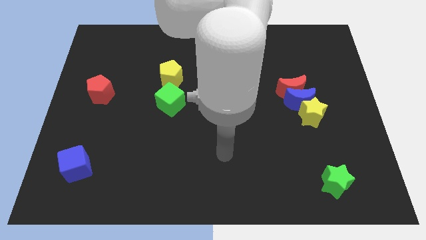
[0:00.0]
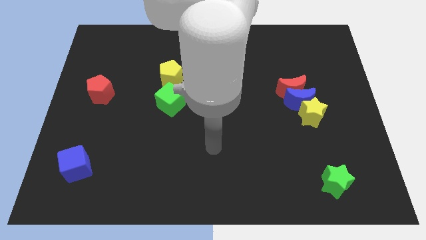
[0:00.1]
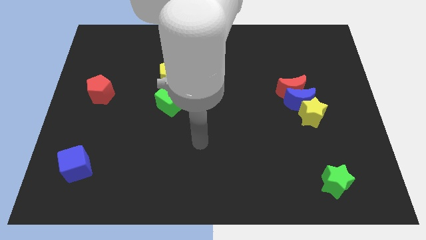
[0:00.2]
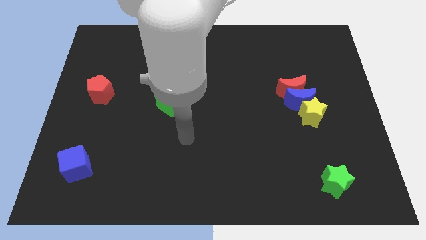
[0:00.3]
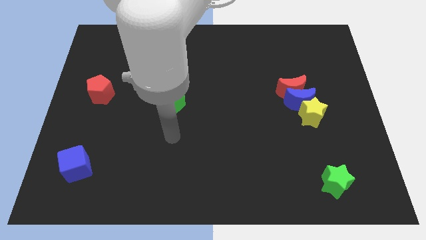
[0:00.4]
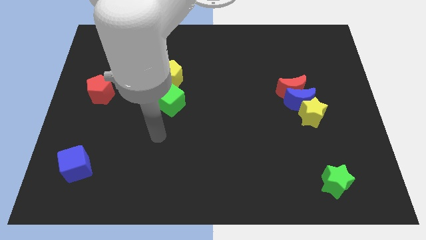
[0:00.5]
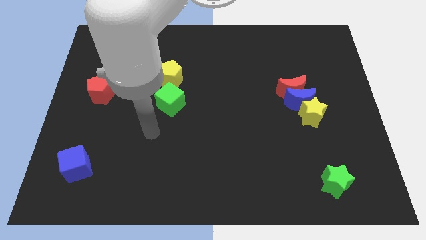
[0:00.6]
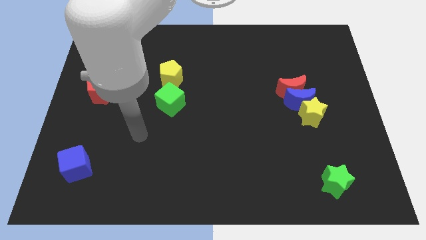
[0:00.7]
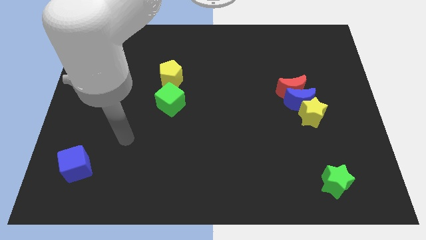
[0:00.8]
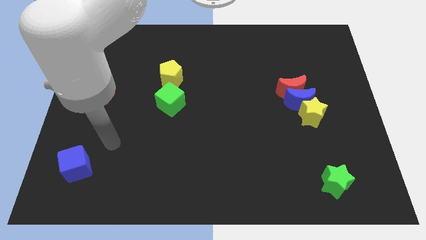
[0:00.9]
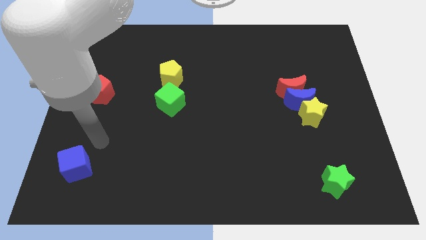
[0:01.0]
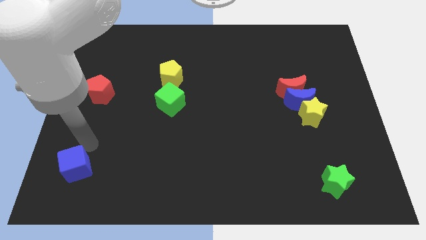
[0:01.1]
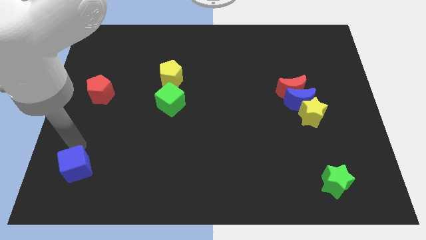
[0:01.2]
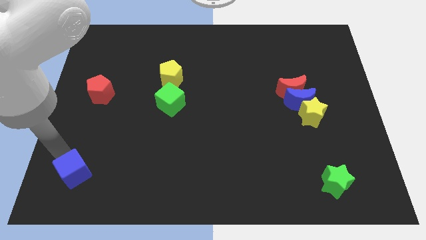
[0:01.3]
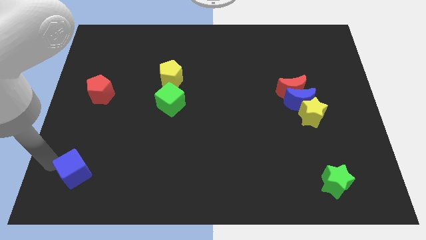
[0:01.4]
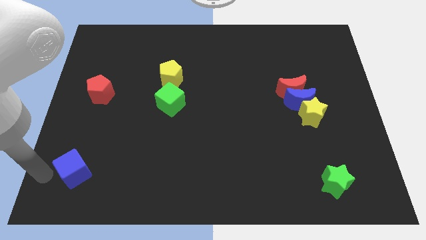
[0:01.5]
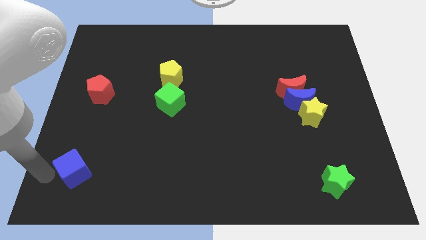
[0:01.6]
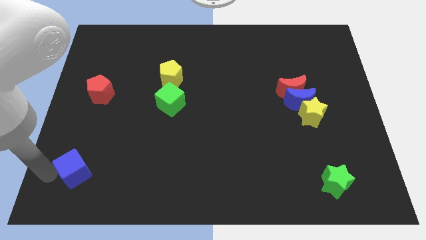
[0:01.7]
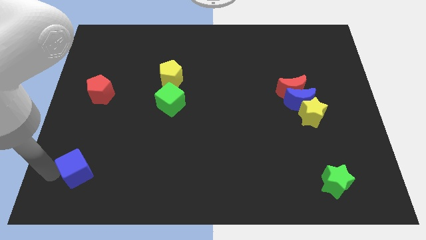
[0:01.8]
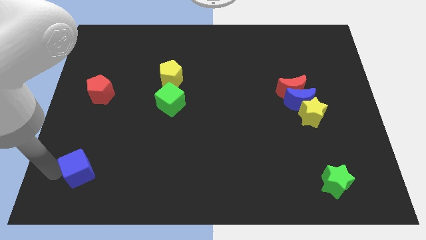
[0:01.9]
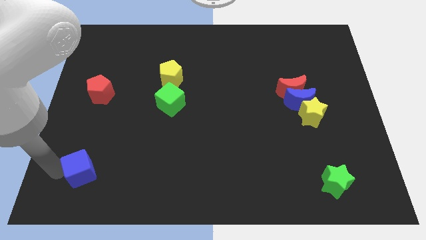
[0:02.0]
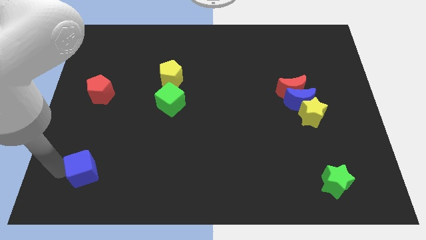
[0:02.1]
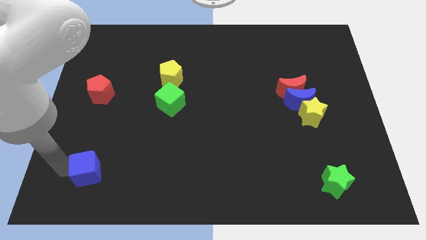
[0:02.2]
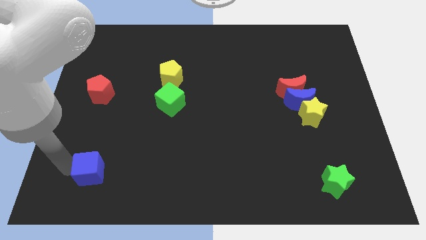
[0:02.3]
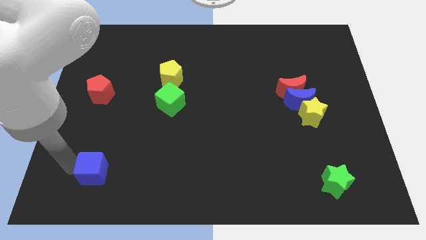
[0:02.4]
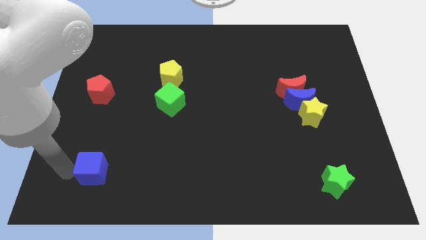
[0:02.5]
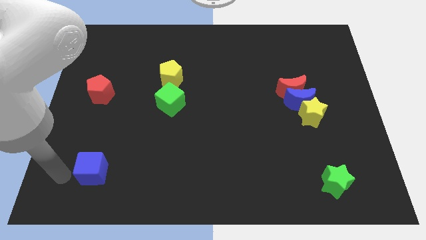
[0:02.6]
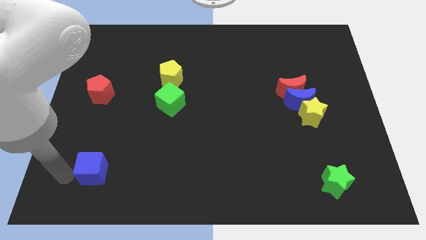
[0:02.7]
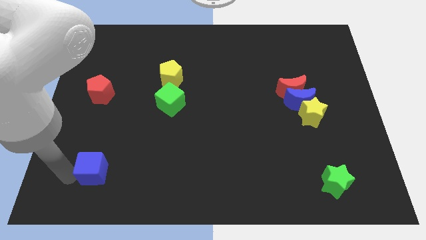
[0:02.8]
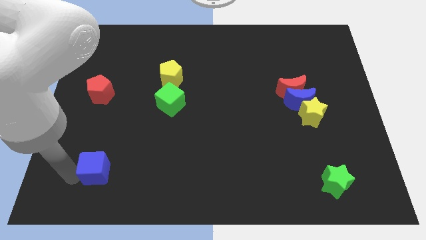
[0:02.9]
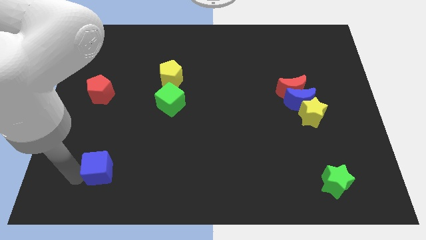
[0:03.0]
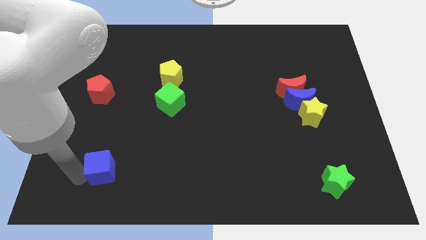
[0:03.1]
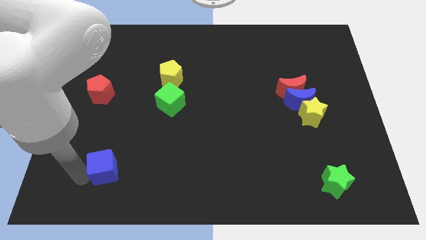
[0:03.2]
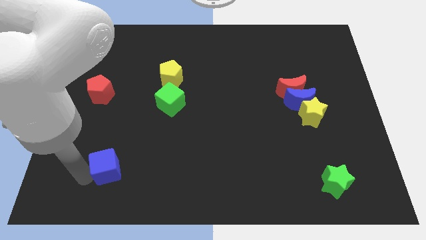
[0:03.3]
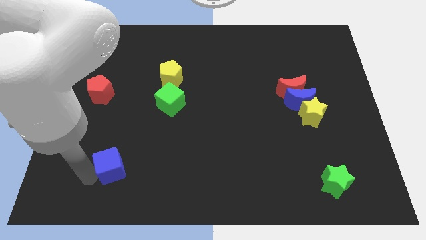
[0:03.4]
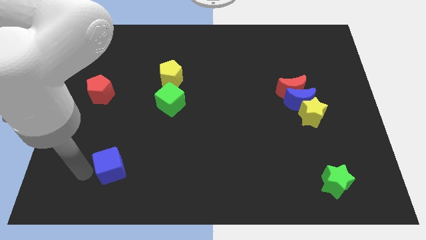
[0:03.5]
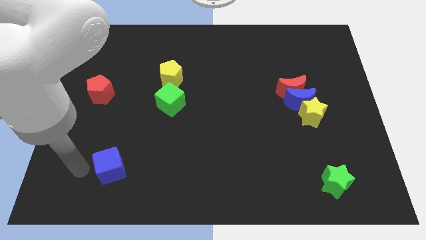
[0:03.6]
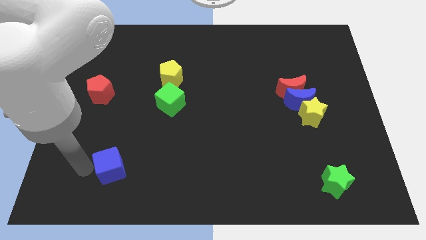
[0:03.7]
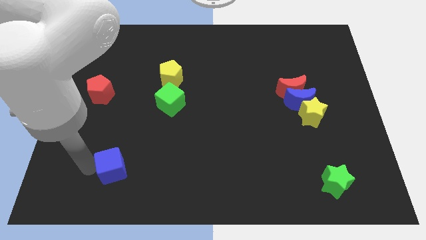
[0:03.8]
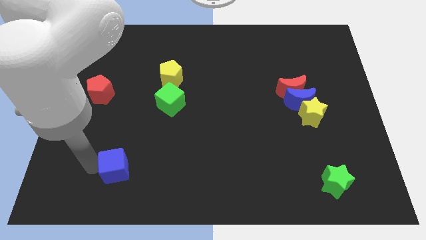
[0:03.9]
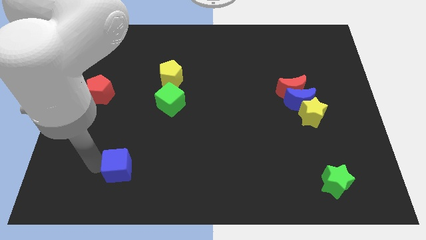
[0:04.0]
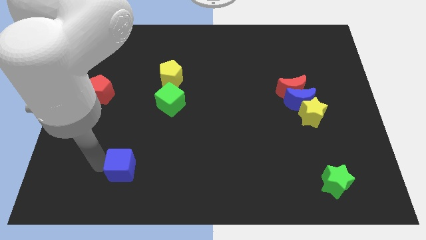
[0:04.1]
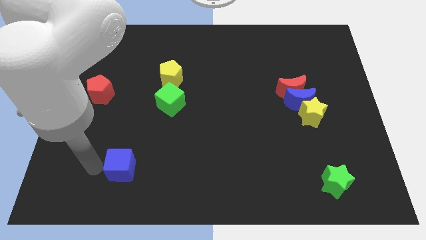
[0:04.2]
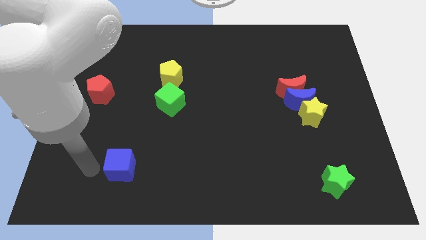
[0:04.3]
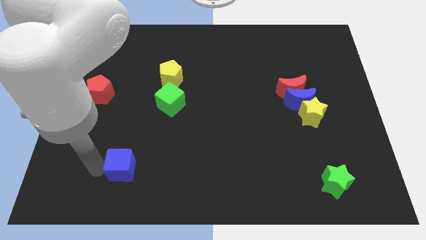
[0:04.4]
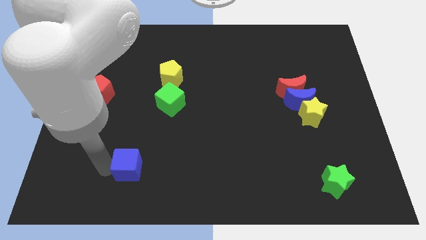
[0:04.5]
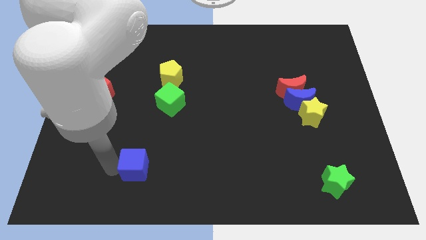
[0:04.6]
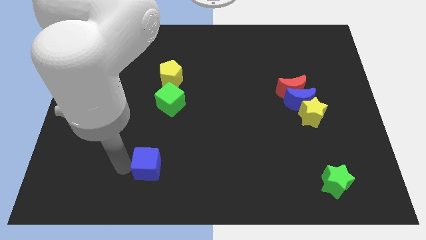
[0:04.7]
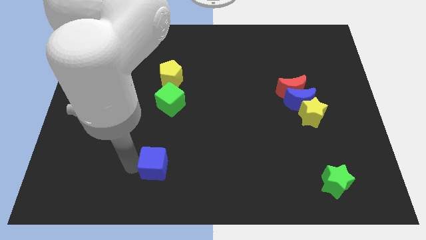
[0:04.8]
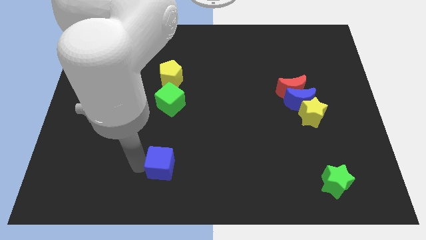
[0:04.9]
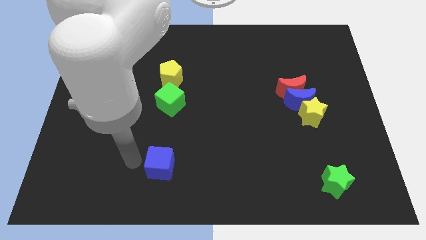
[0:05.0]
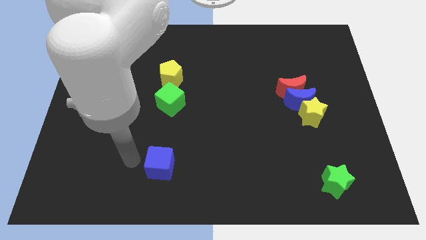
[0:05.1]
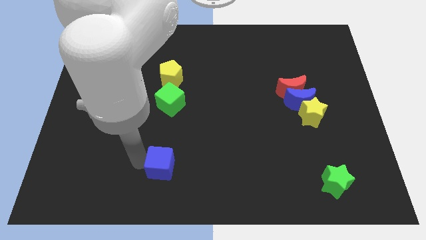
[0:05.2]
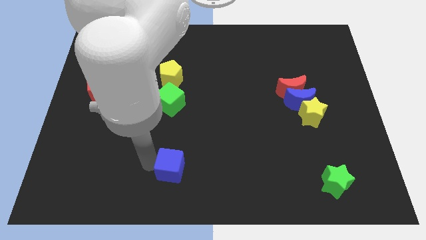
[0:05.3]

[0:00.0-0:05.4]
move the blue cube to the right

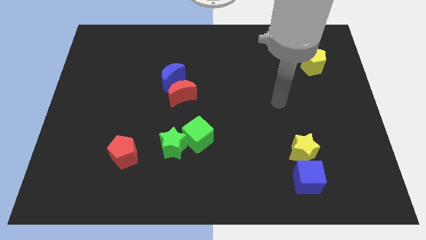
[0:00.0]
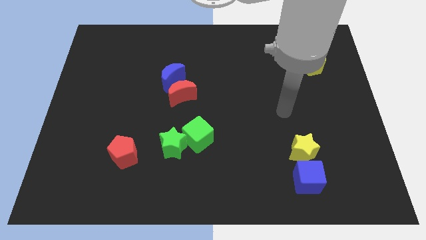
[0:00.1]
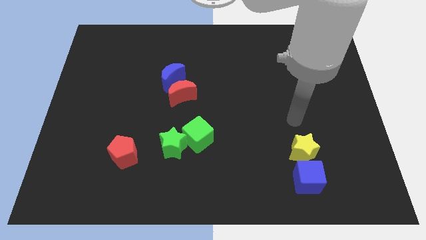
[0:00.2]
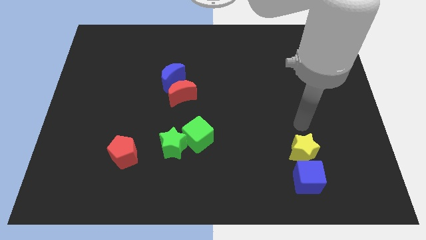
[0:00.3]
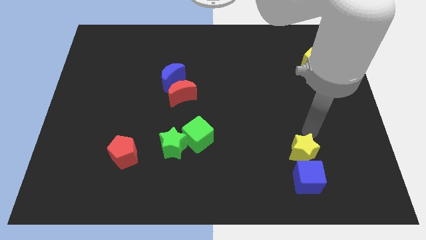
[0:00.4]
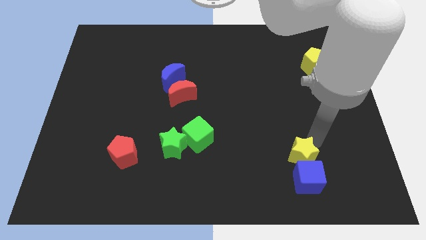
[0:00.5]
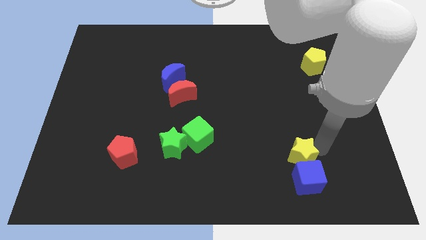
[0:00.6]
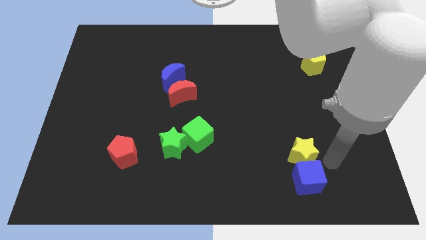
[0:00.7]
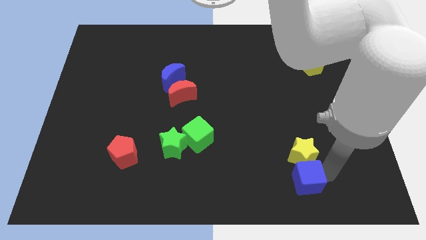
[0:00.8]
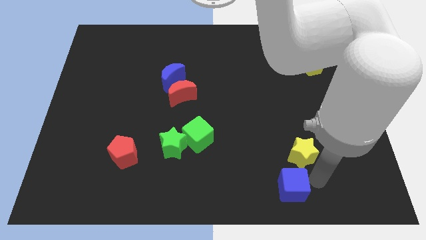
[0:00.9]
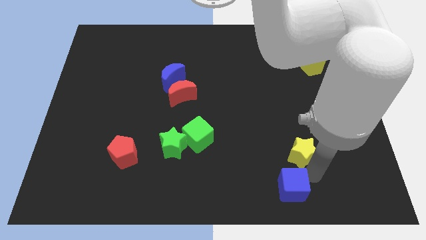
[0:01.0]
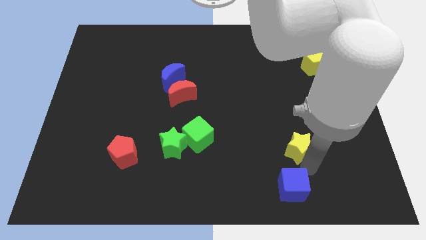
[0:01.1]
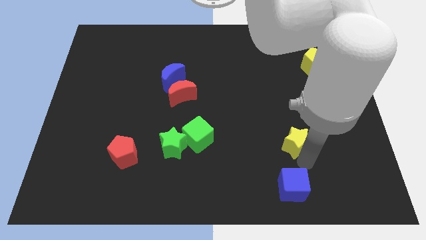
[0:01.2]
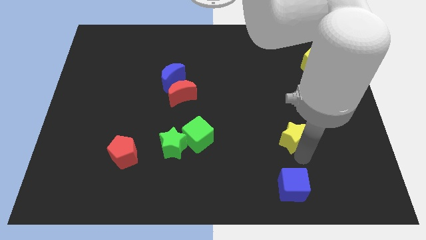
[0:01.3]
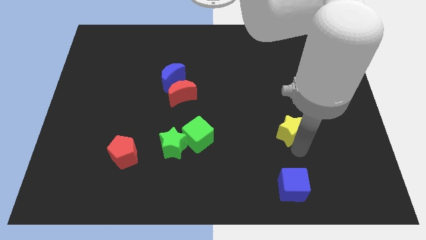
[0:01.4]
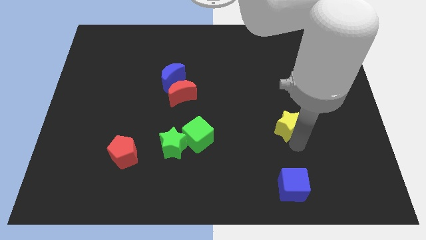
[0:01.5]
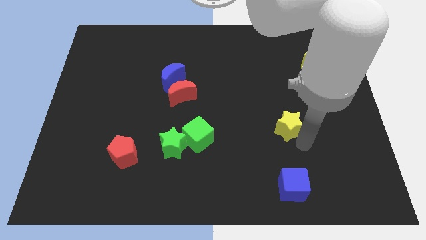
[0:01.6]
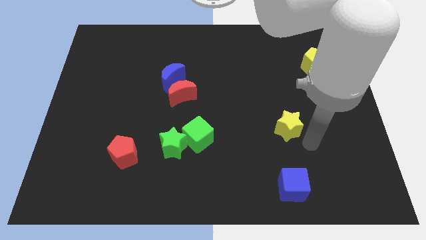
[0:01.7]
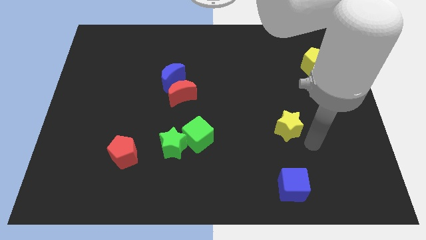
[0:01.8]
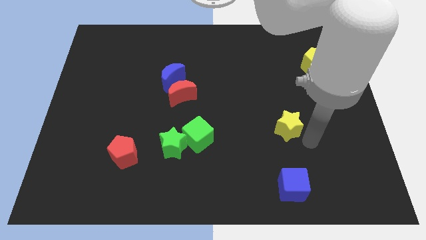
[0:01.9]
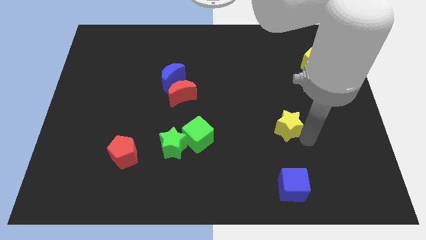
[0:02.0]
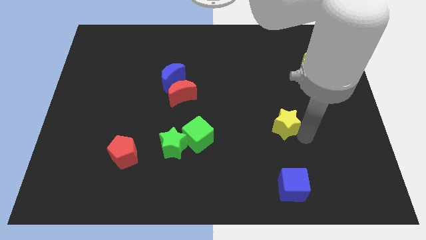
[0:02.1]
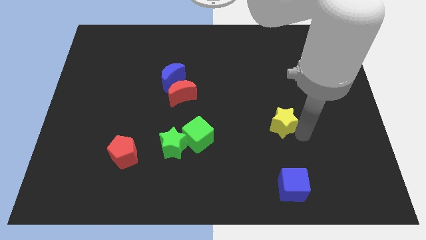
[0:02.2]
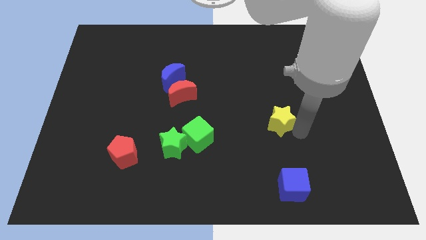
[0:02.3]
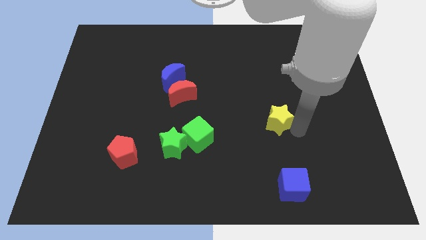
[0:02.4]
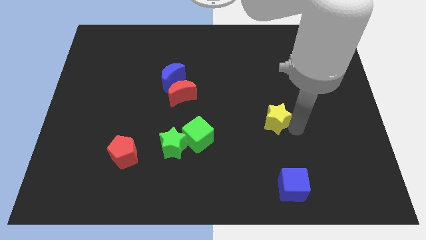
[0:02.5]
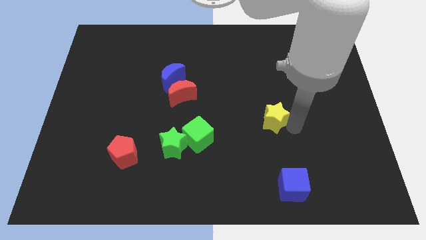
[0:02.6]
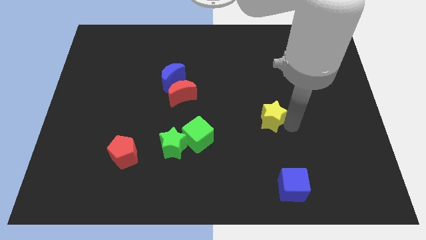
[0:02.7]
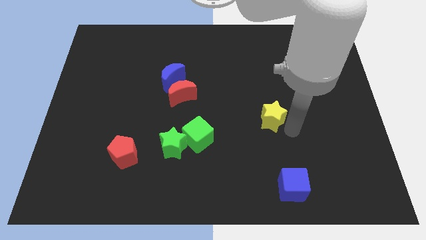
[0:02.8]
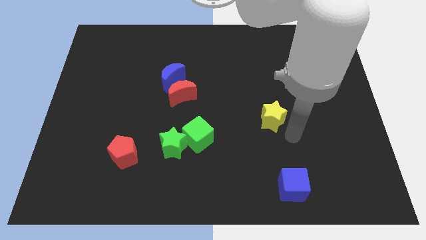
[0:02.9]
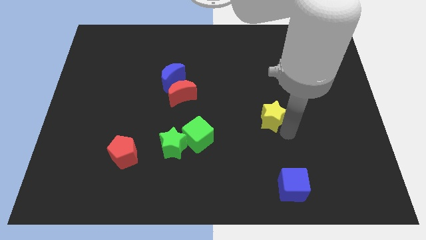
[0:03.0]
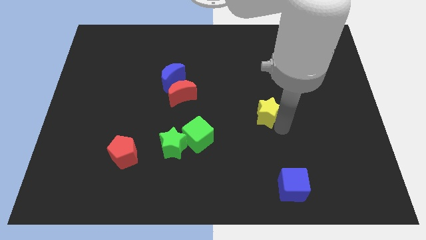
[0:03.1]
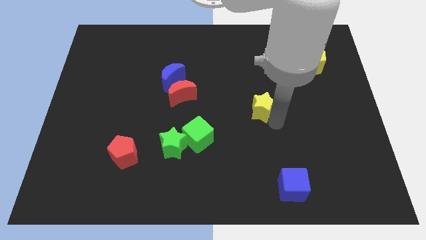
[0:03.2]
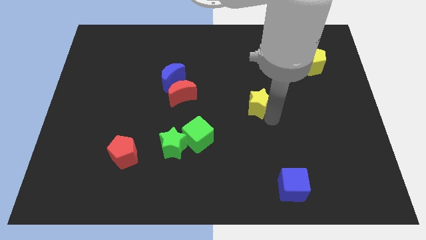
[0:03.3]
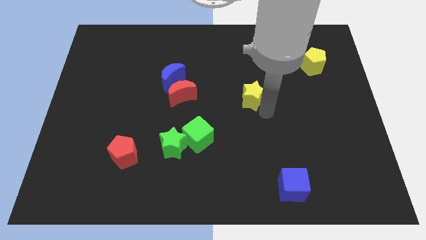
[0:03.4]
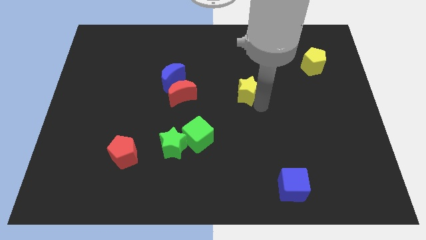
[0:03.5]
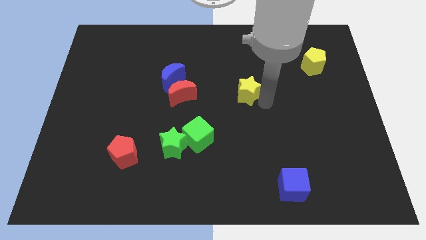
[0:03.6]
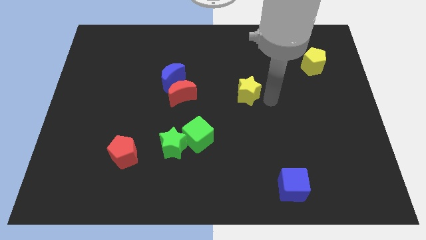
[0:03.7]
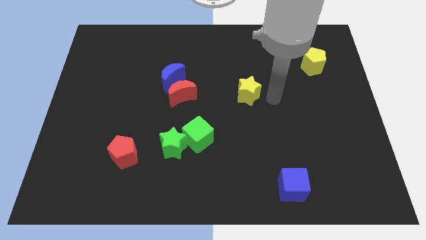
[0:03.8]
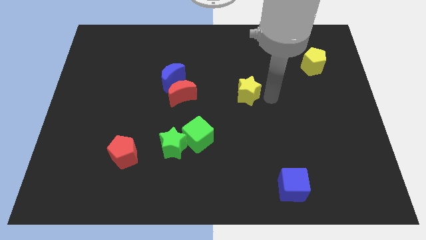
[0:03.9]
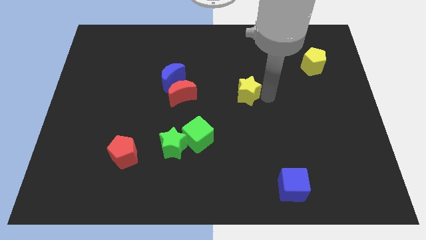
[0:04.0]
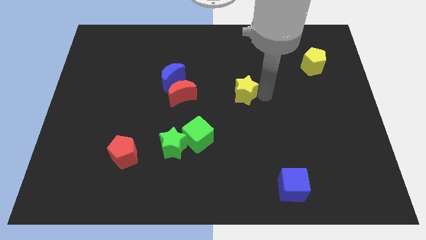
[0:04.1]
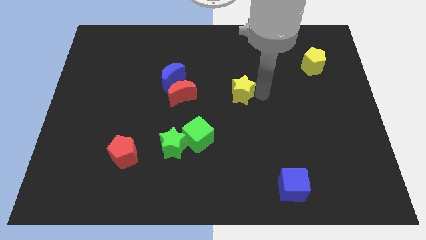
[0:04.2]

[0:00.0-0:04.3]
slide the yellow star diagonally up and to the left
